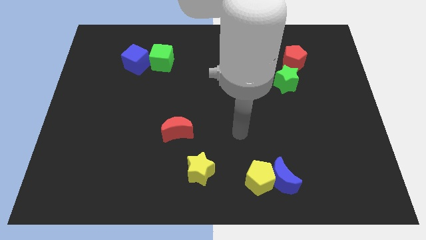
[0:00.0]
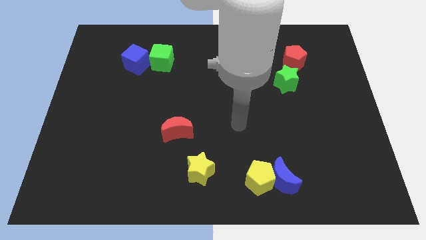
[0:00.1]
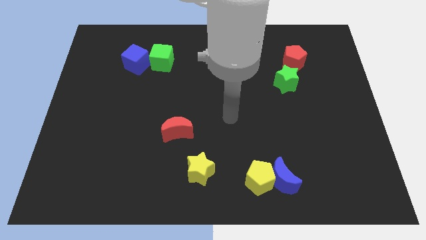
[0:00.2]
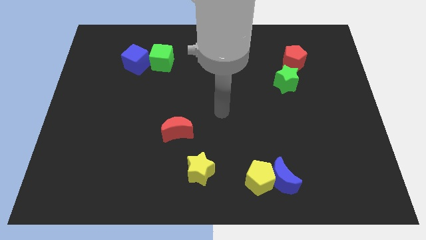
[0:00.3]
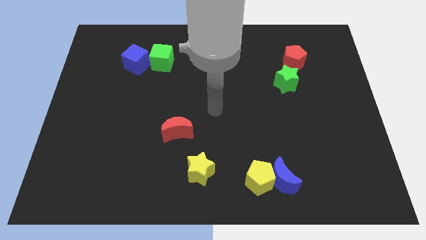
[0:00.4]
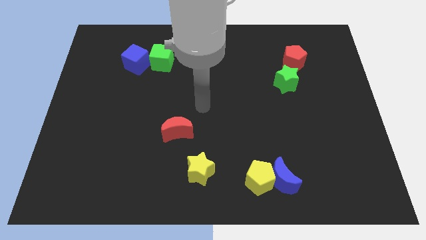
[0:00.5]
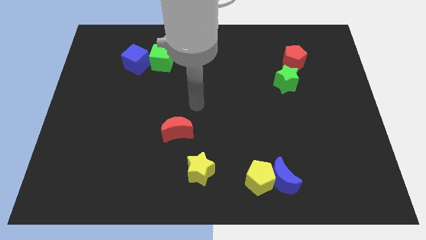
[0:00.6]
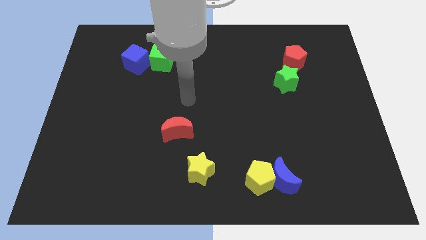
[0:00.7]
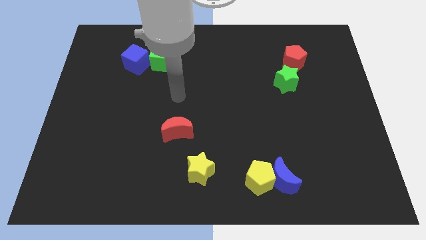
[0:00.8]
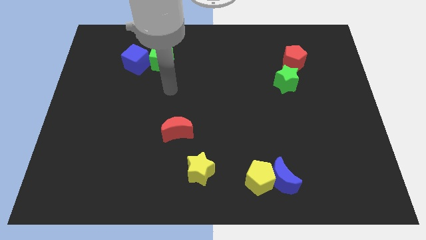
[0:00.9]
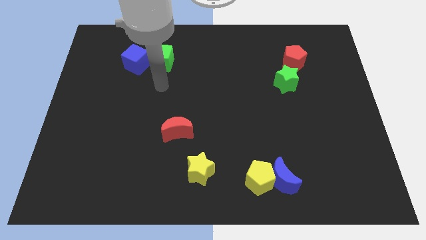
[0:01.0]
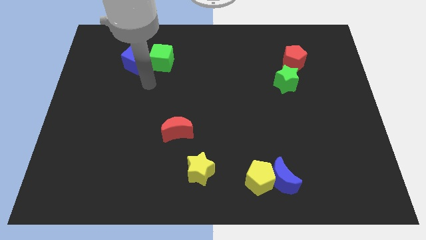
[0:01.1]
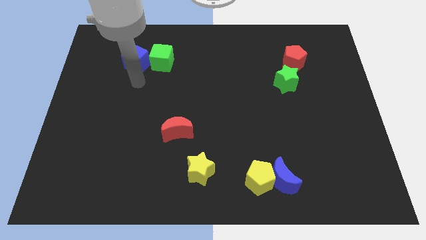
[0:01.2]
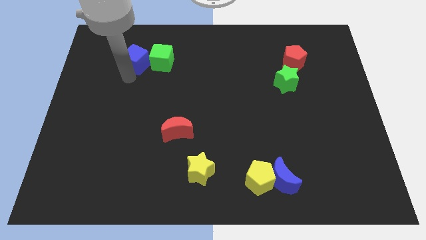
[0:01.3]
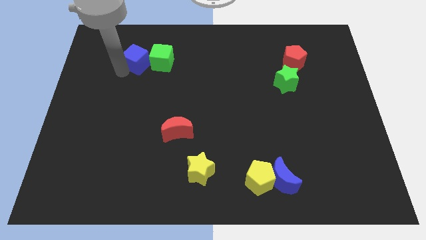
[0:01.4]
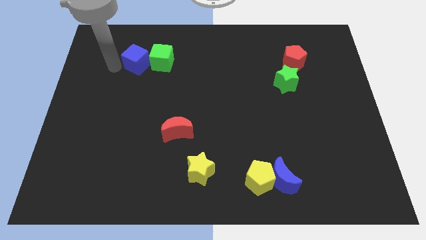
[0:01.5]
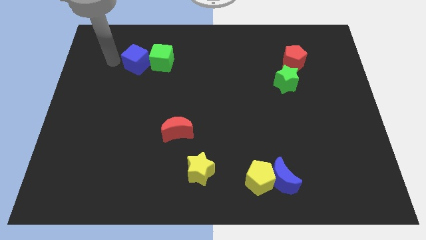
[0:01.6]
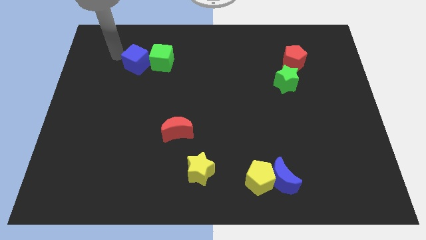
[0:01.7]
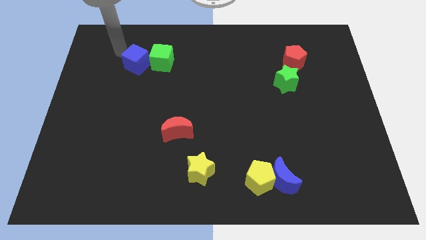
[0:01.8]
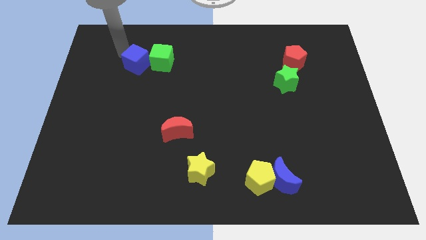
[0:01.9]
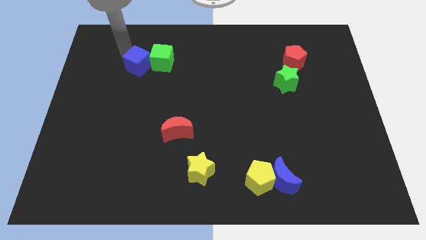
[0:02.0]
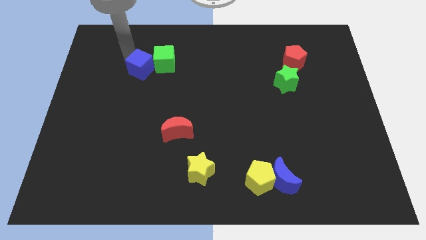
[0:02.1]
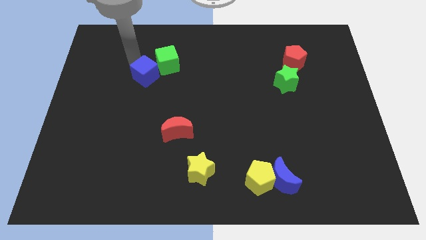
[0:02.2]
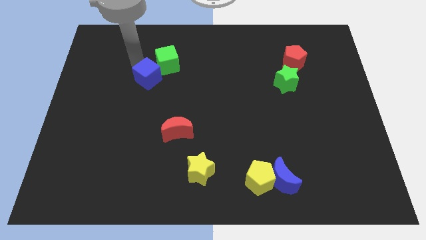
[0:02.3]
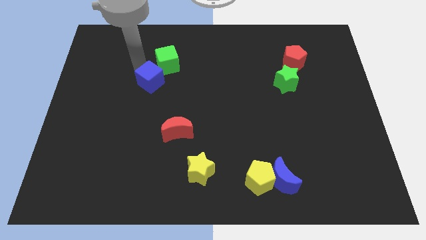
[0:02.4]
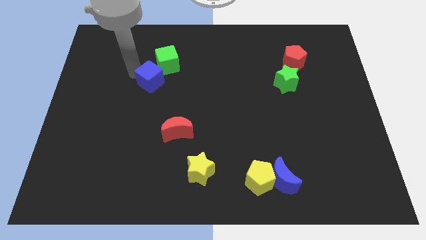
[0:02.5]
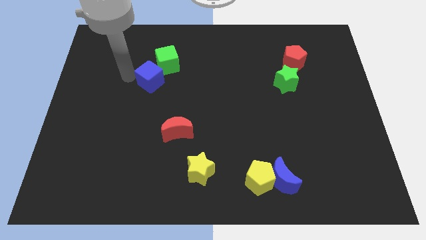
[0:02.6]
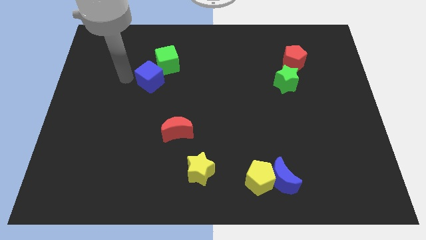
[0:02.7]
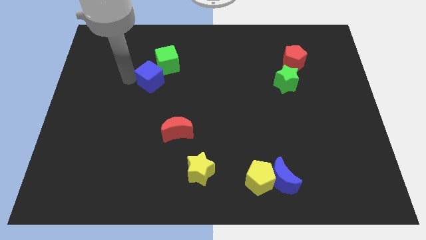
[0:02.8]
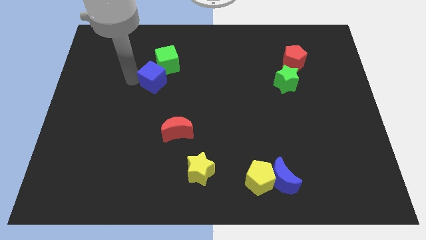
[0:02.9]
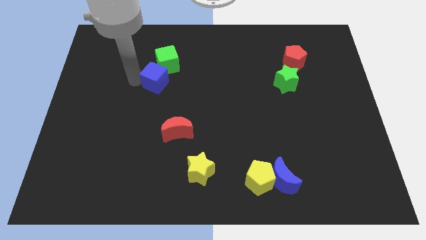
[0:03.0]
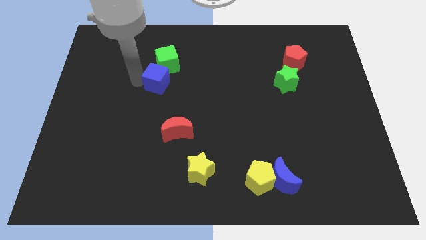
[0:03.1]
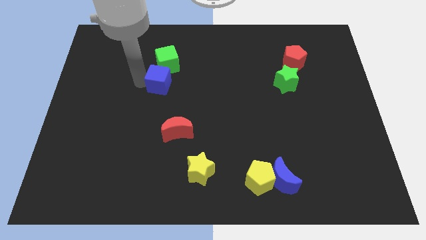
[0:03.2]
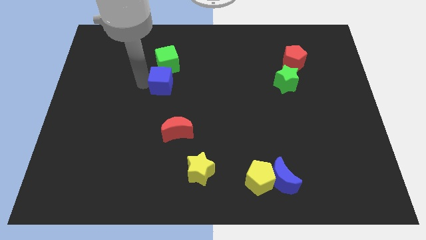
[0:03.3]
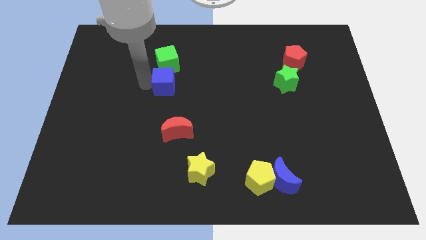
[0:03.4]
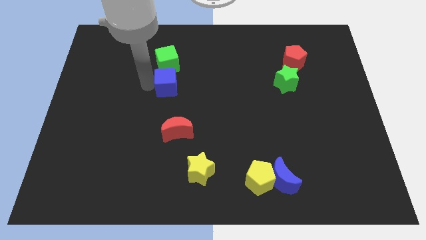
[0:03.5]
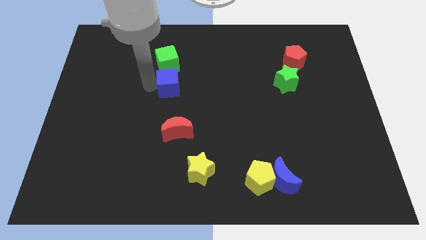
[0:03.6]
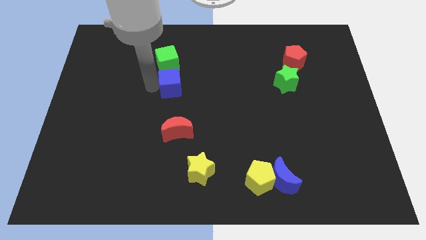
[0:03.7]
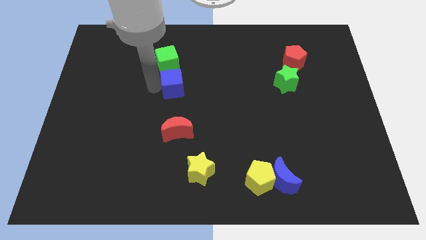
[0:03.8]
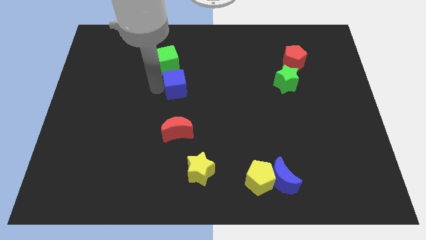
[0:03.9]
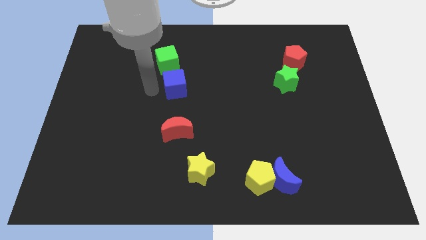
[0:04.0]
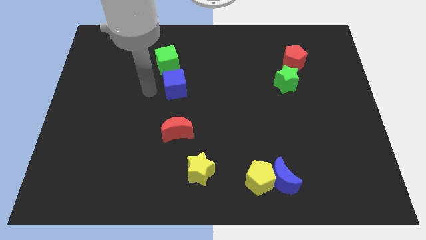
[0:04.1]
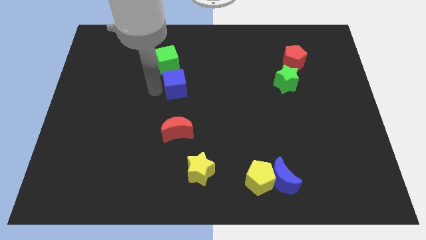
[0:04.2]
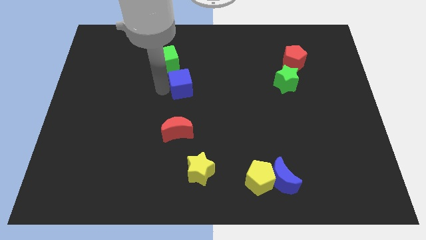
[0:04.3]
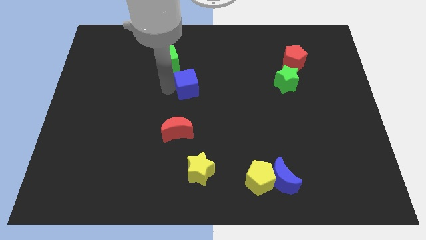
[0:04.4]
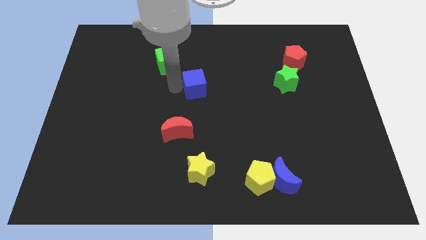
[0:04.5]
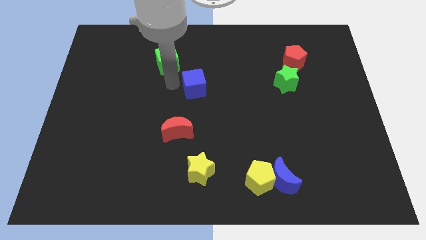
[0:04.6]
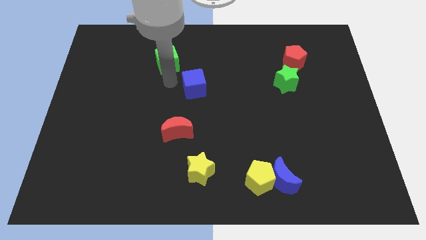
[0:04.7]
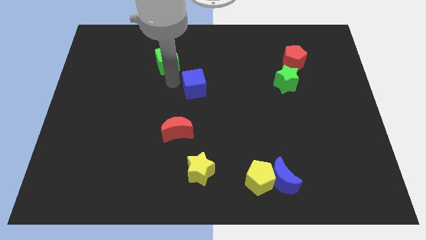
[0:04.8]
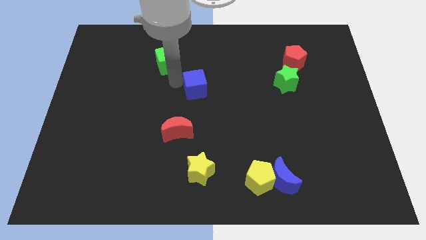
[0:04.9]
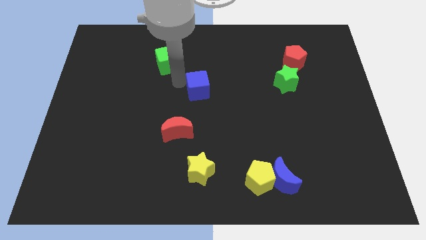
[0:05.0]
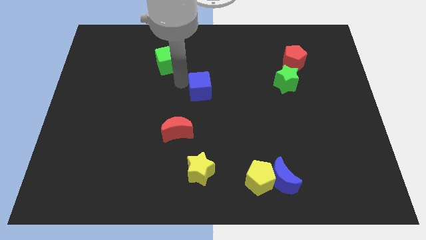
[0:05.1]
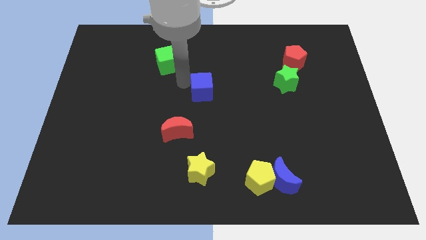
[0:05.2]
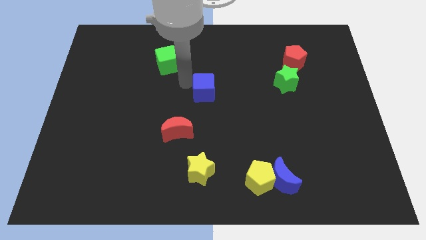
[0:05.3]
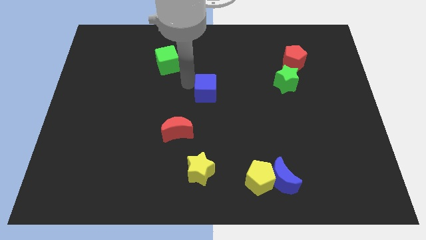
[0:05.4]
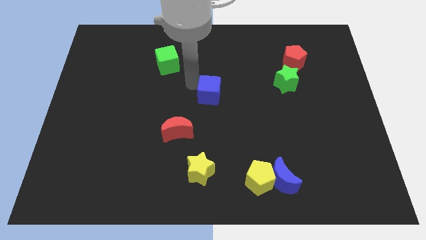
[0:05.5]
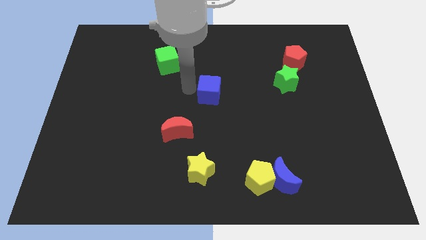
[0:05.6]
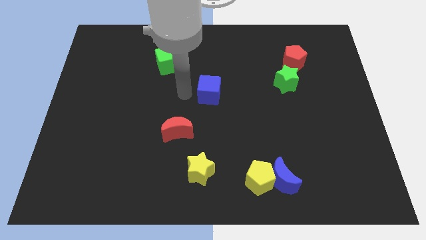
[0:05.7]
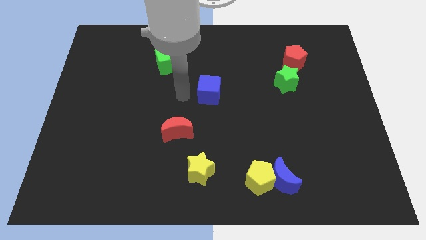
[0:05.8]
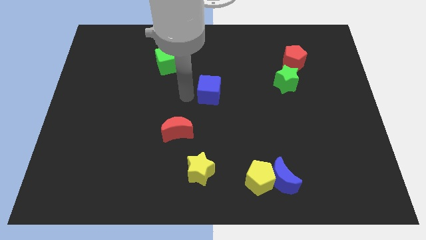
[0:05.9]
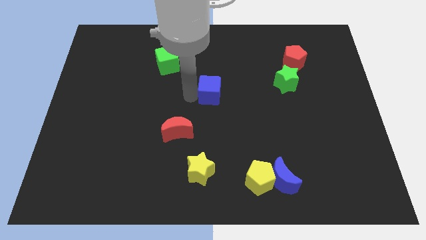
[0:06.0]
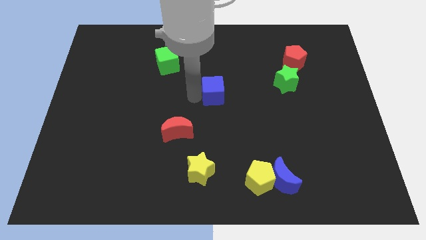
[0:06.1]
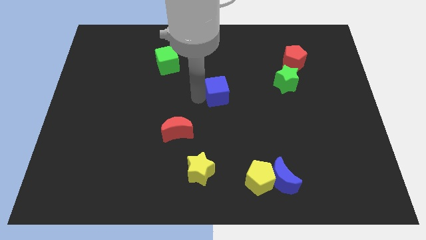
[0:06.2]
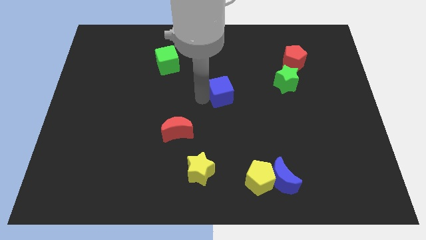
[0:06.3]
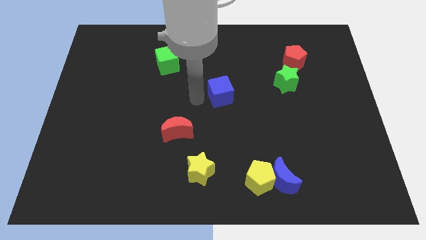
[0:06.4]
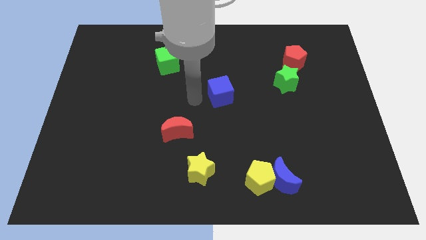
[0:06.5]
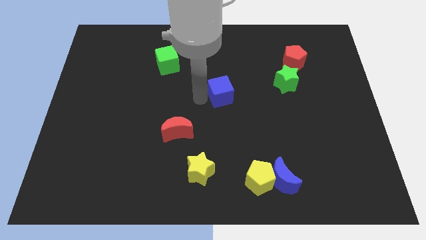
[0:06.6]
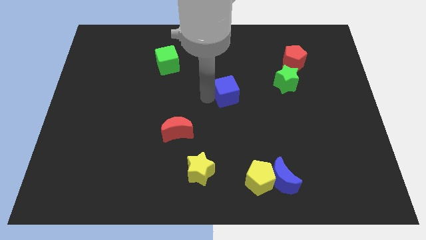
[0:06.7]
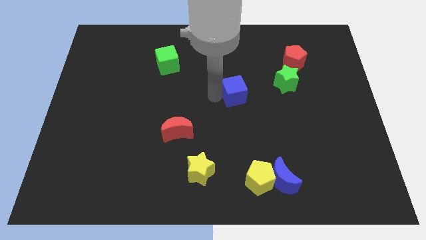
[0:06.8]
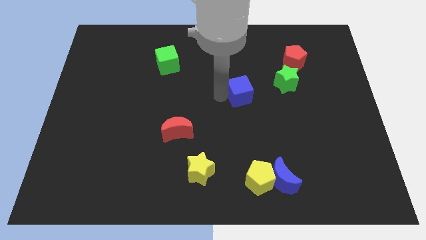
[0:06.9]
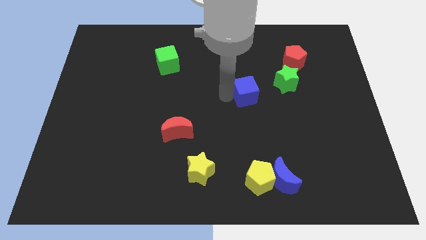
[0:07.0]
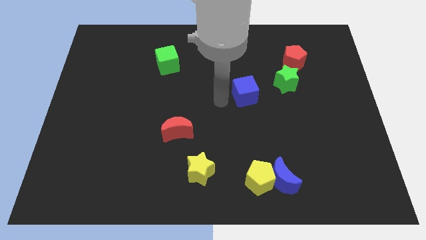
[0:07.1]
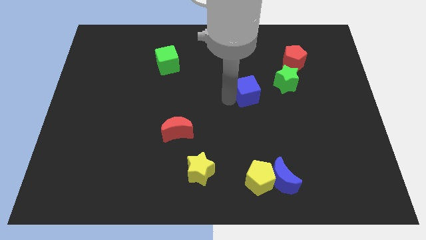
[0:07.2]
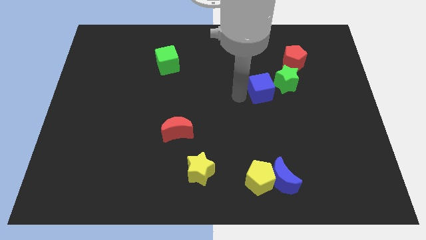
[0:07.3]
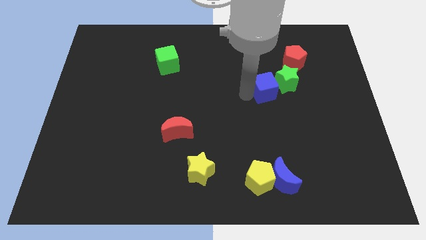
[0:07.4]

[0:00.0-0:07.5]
move the blue cube to the green star
